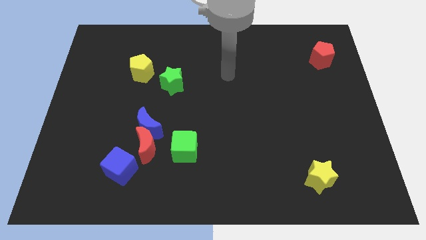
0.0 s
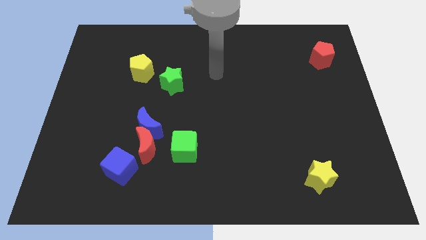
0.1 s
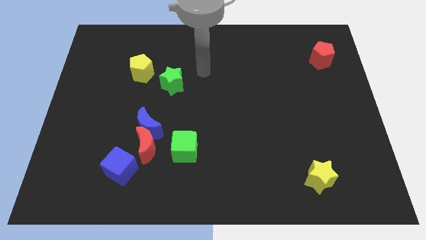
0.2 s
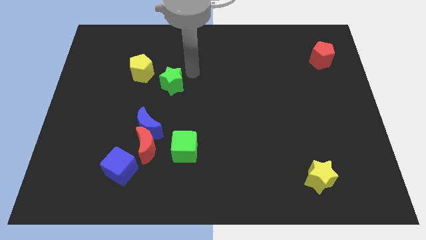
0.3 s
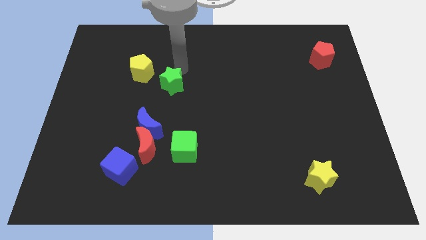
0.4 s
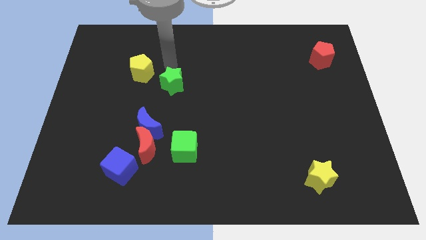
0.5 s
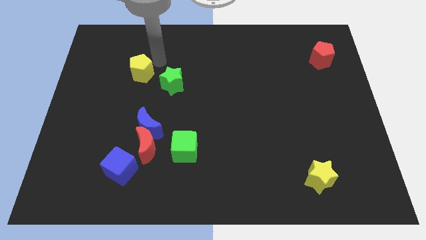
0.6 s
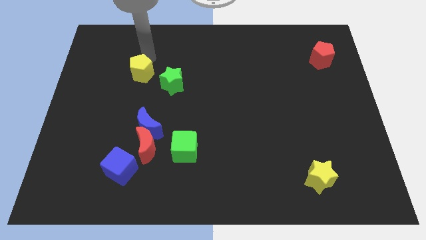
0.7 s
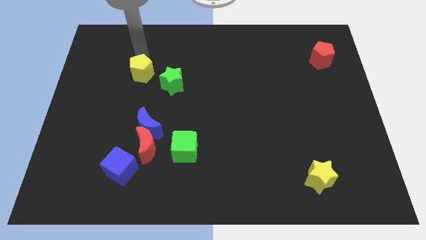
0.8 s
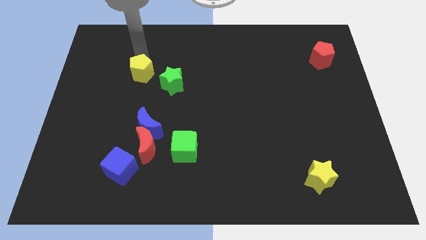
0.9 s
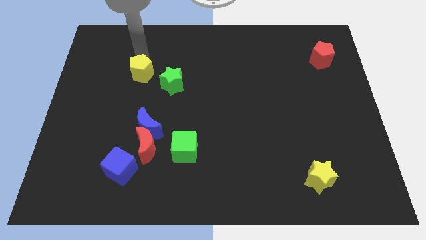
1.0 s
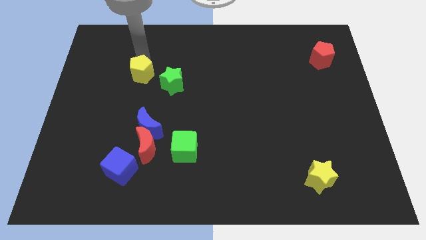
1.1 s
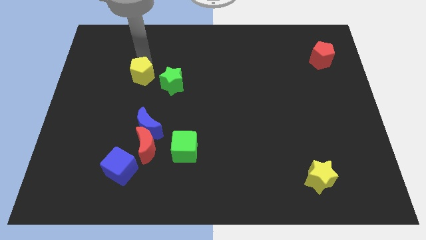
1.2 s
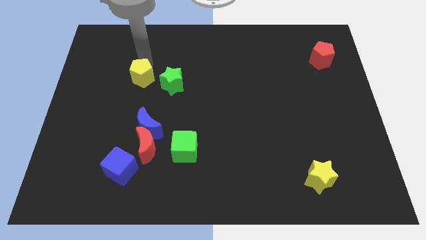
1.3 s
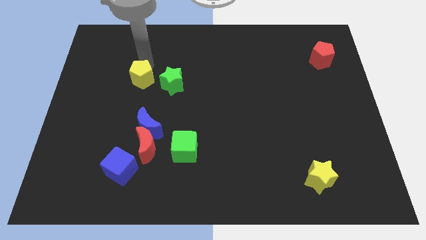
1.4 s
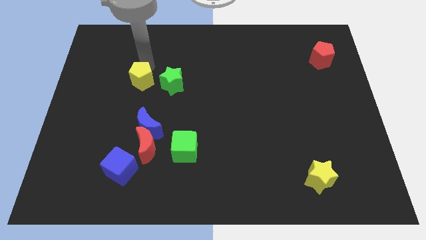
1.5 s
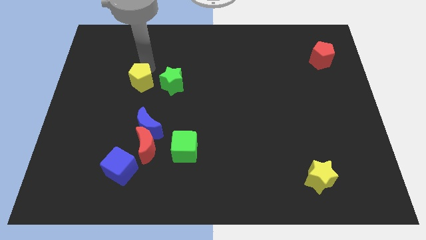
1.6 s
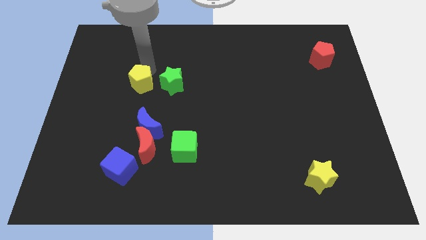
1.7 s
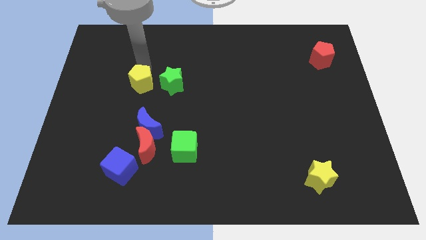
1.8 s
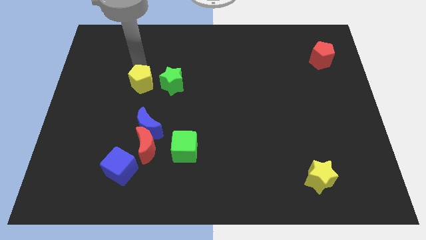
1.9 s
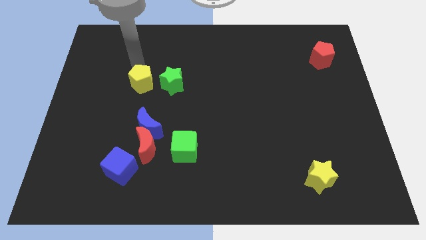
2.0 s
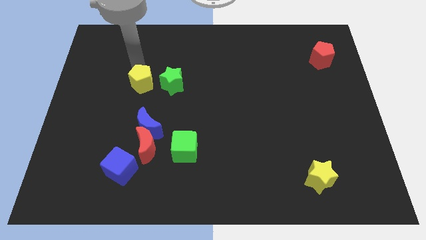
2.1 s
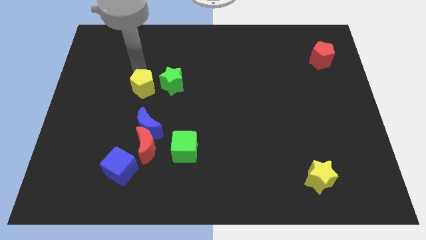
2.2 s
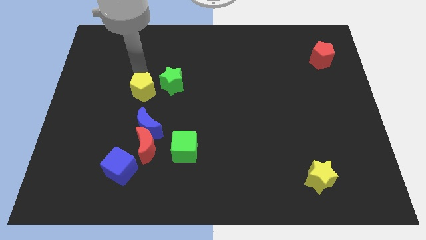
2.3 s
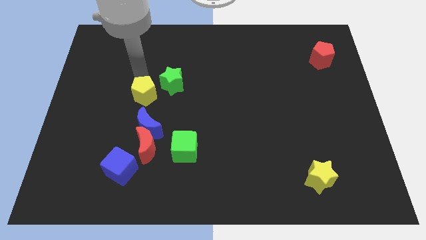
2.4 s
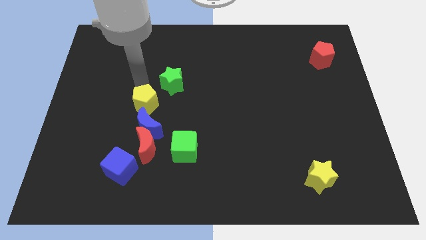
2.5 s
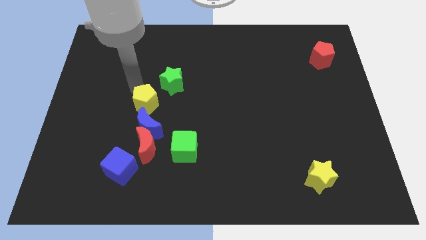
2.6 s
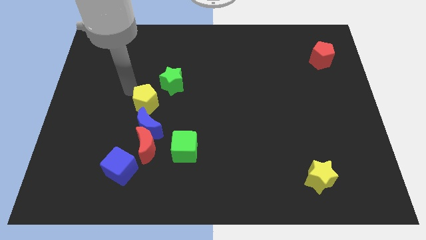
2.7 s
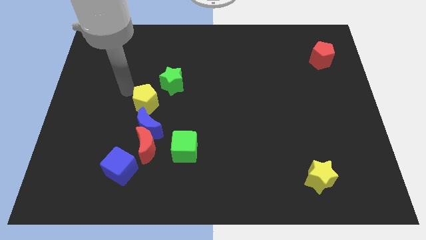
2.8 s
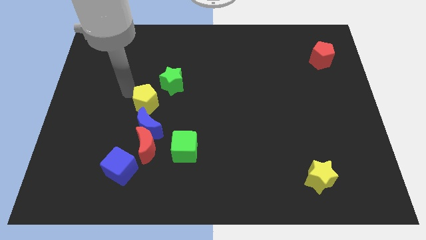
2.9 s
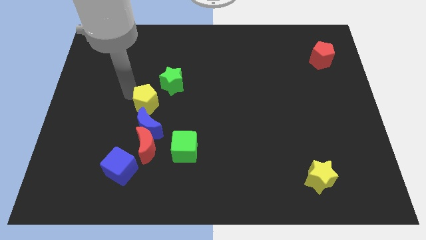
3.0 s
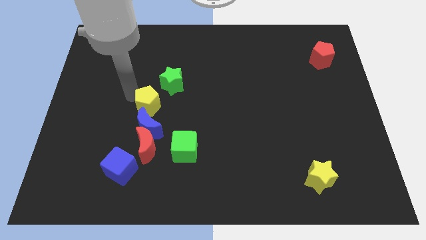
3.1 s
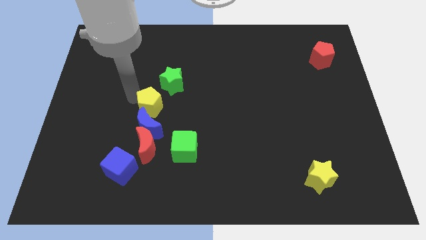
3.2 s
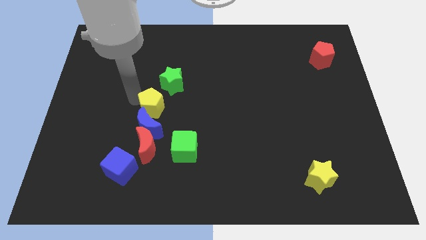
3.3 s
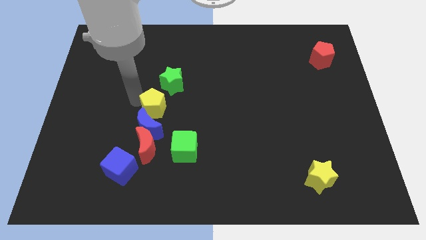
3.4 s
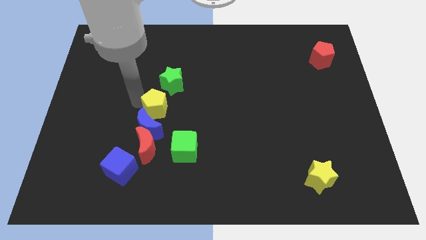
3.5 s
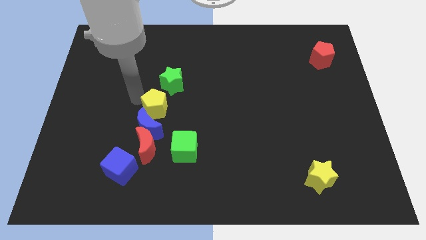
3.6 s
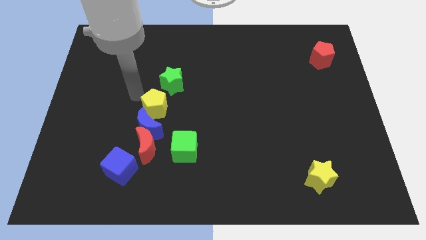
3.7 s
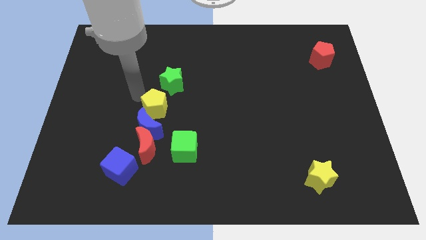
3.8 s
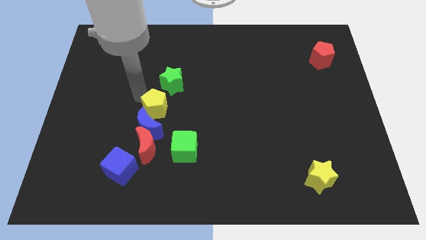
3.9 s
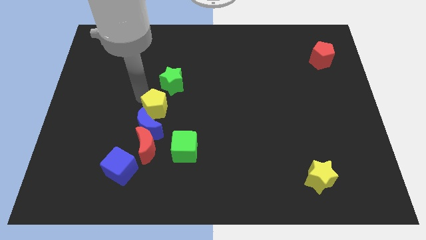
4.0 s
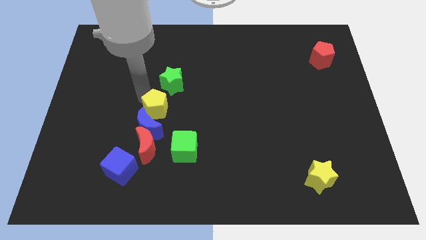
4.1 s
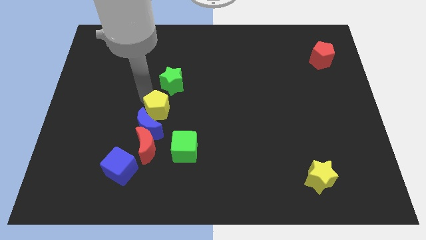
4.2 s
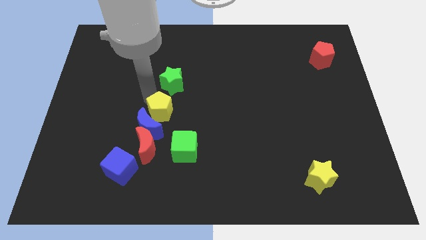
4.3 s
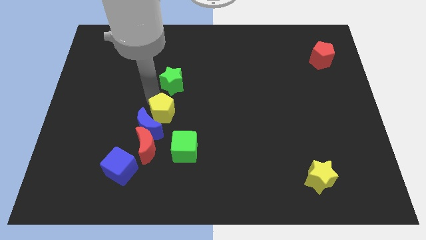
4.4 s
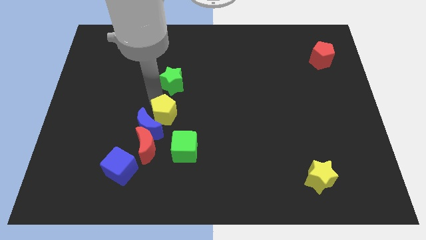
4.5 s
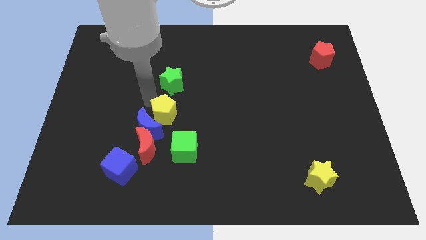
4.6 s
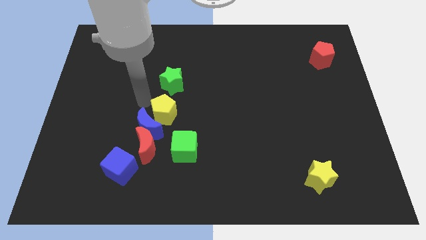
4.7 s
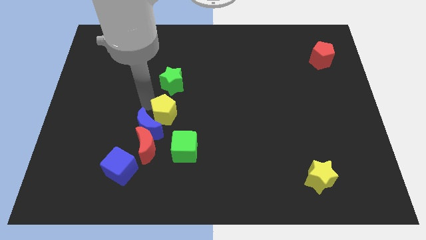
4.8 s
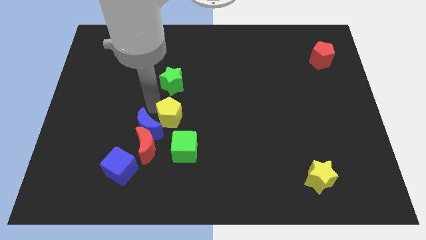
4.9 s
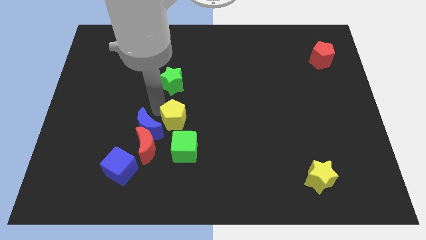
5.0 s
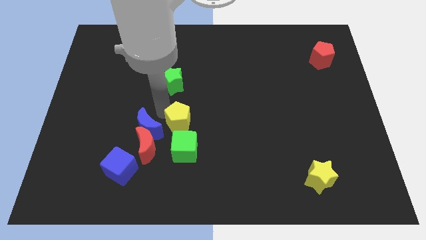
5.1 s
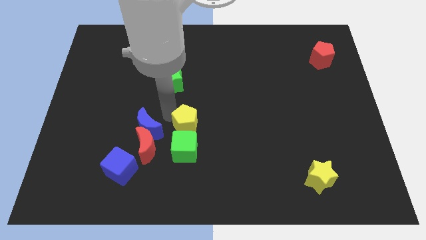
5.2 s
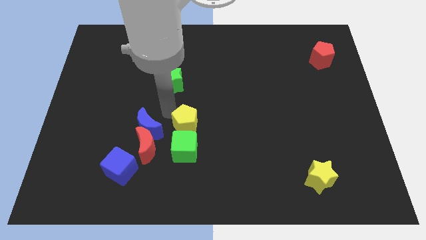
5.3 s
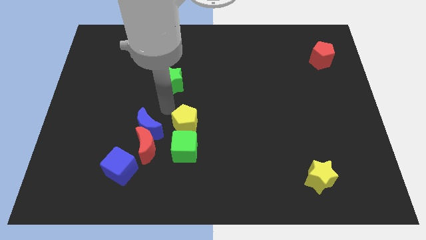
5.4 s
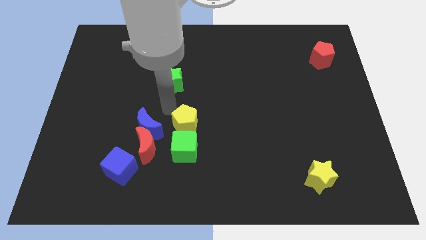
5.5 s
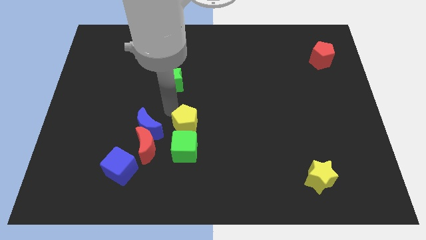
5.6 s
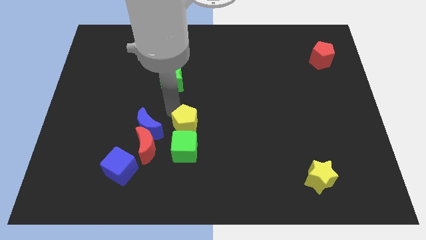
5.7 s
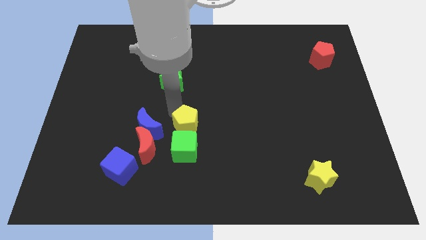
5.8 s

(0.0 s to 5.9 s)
slide the yellow pentagon diagonally down and right

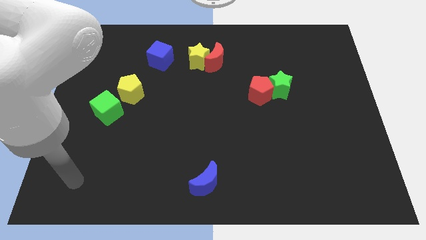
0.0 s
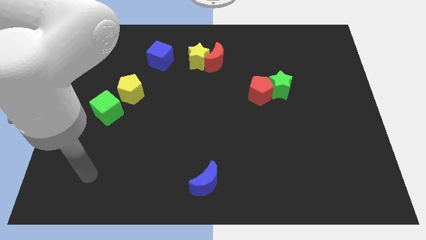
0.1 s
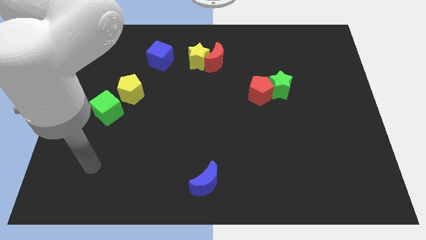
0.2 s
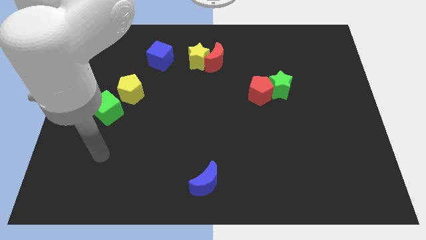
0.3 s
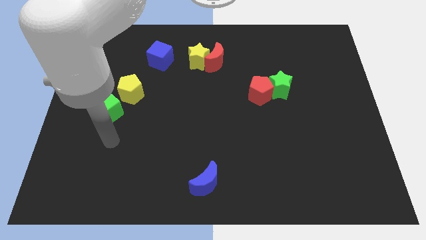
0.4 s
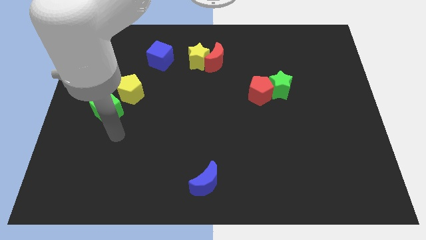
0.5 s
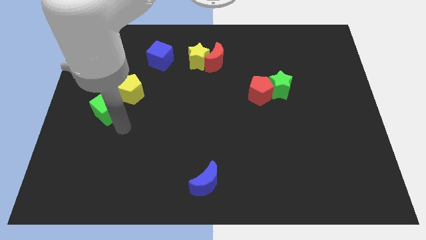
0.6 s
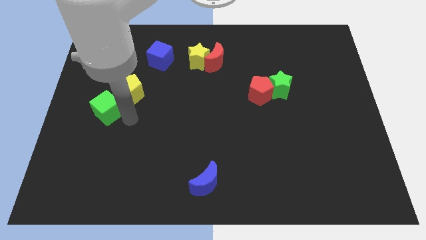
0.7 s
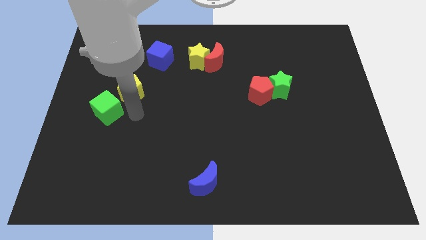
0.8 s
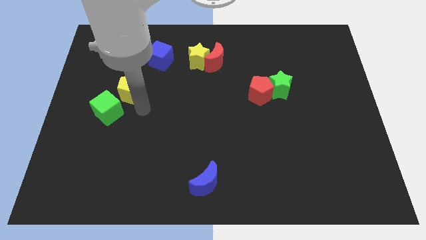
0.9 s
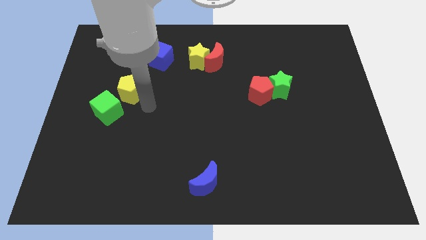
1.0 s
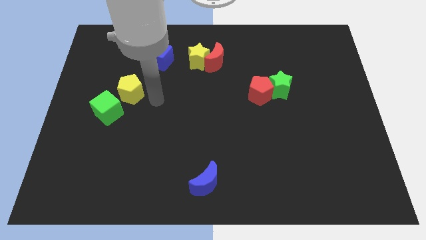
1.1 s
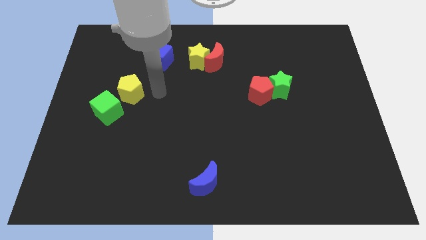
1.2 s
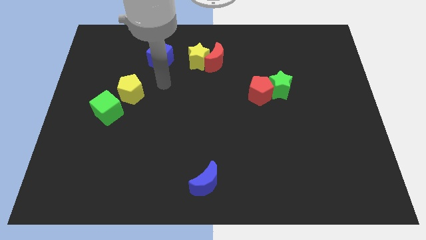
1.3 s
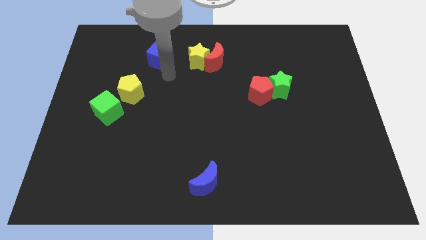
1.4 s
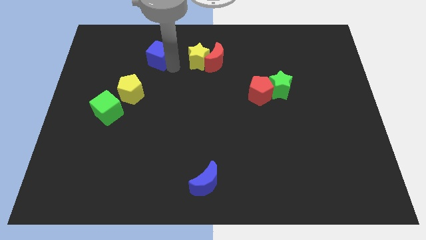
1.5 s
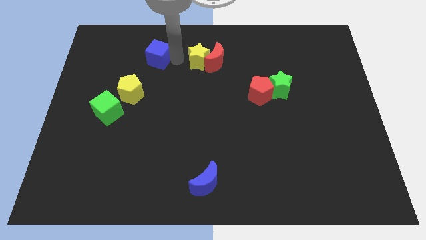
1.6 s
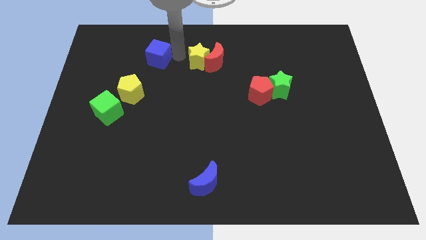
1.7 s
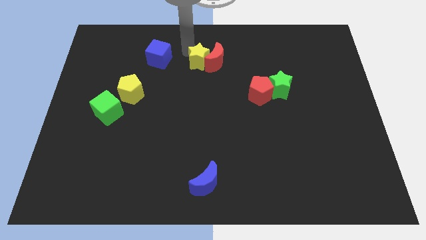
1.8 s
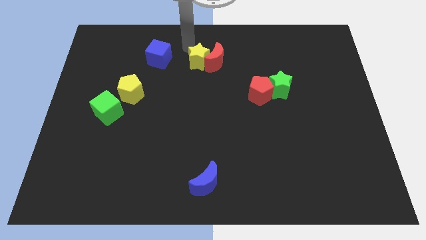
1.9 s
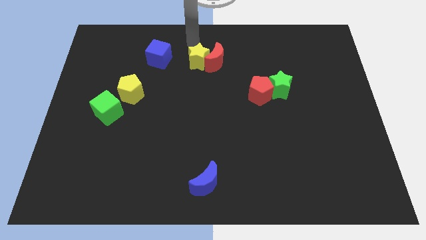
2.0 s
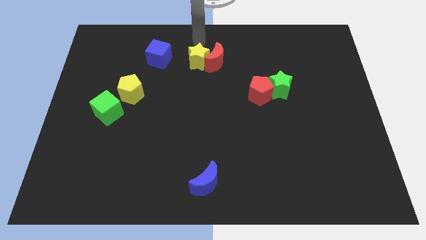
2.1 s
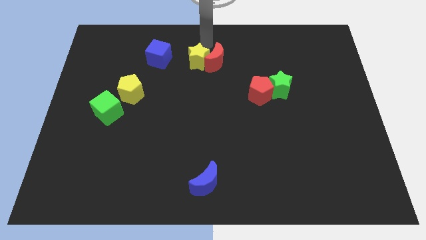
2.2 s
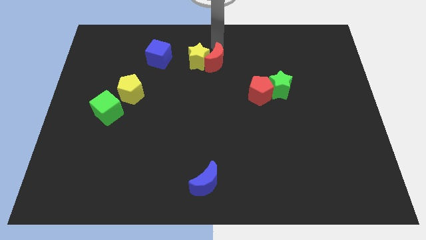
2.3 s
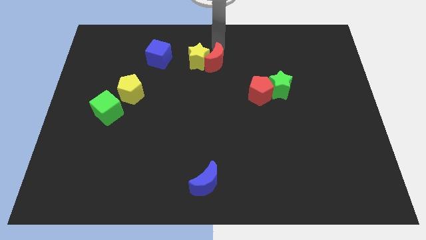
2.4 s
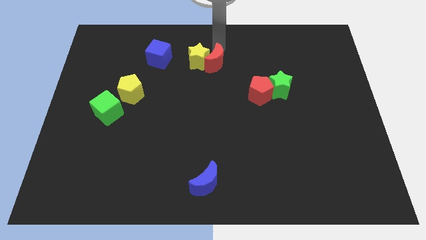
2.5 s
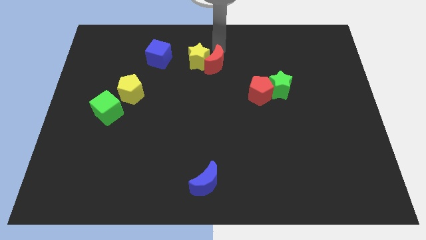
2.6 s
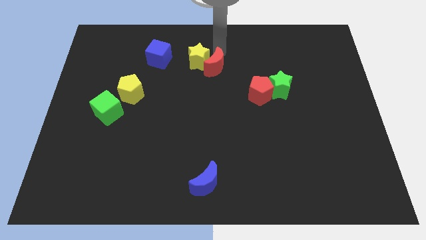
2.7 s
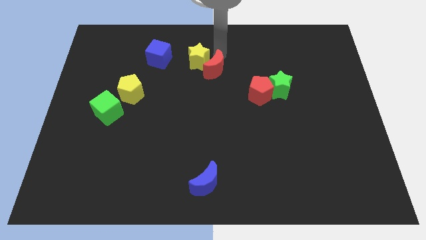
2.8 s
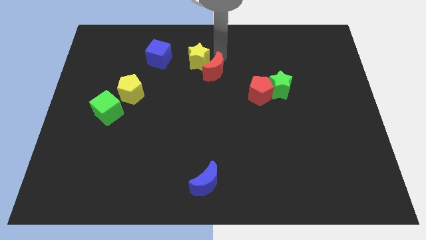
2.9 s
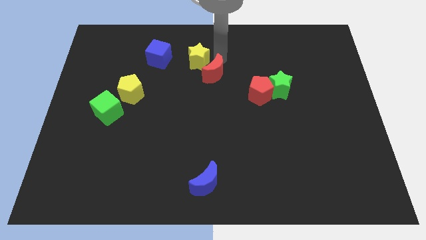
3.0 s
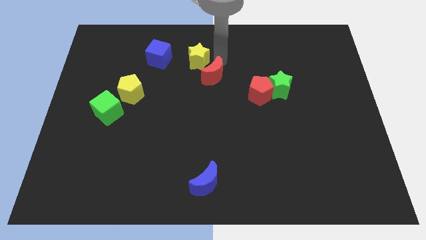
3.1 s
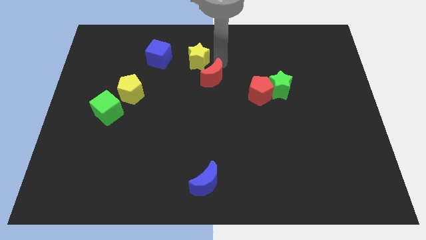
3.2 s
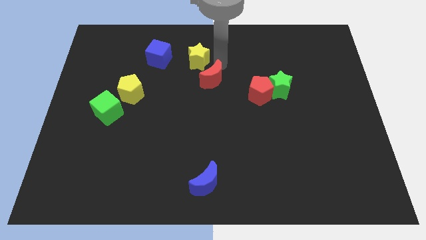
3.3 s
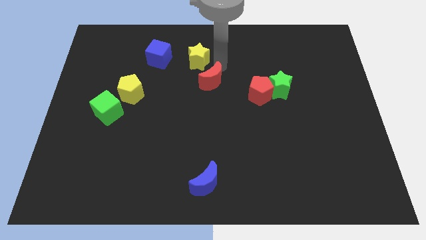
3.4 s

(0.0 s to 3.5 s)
move the red moon downwards a bit
